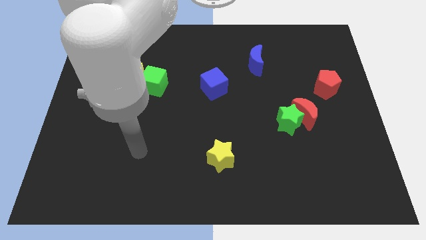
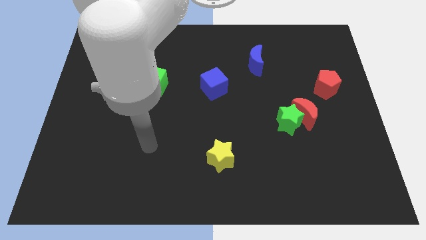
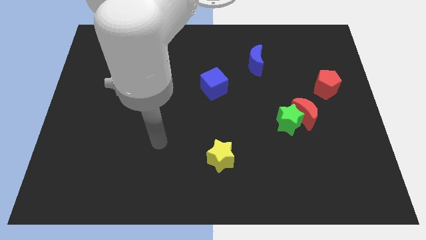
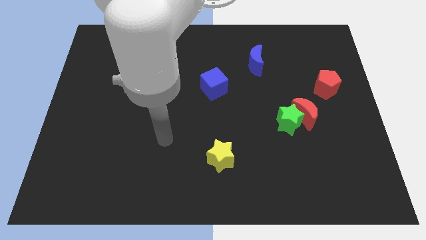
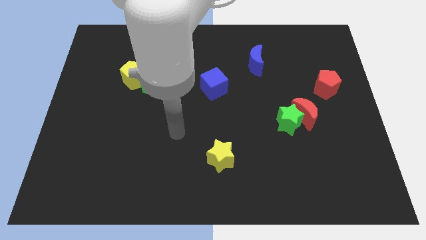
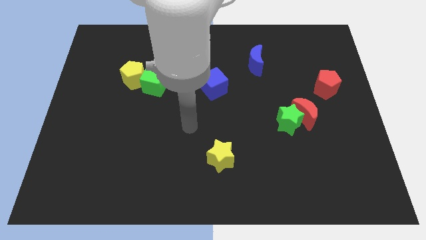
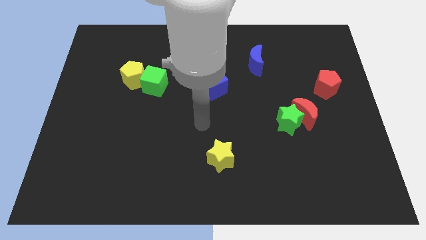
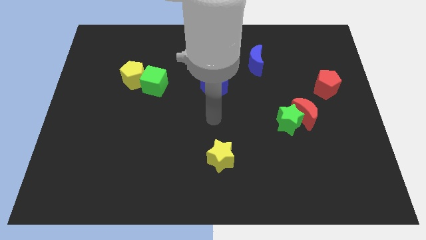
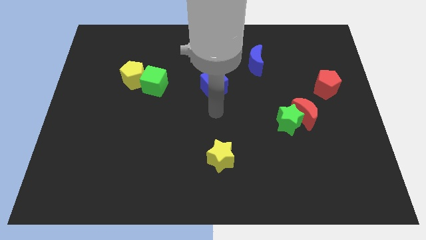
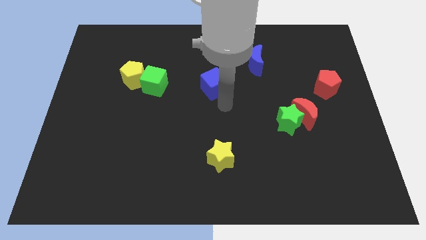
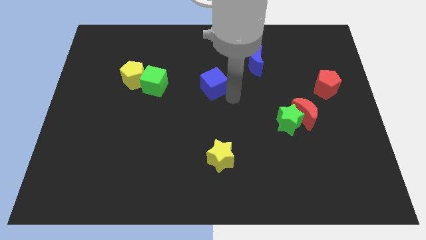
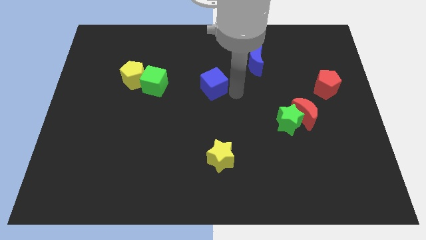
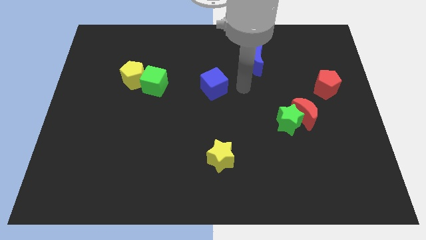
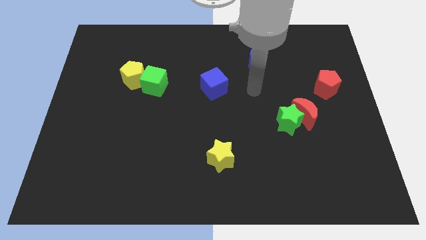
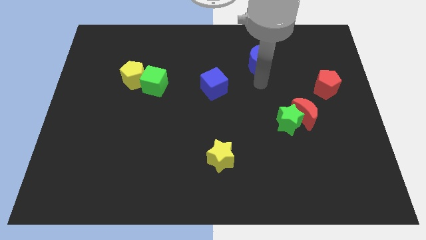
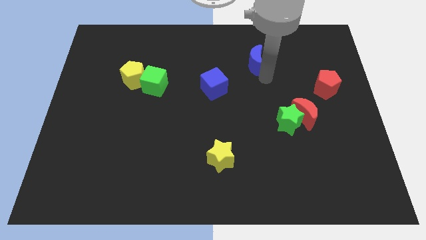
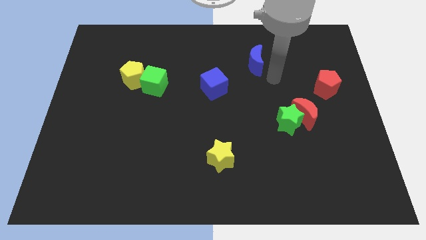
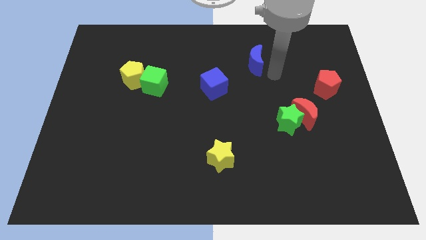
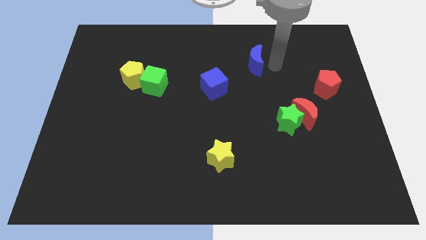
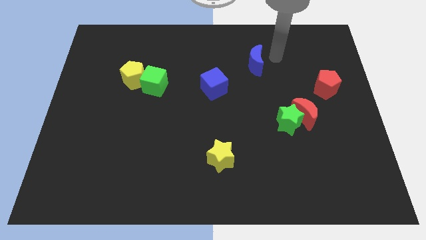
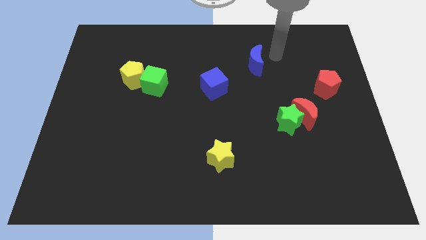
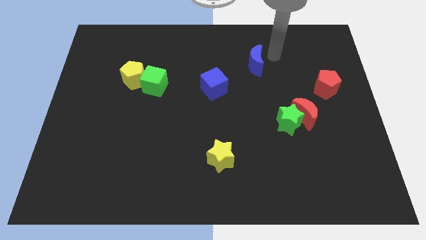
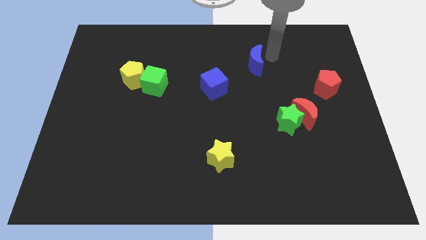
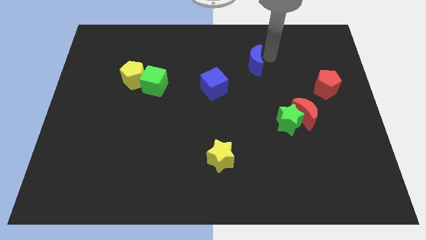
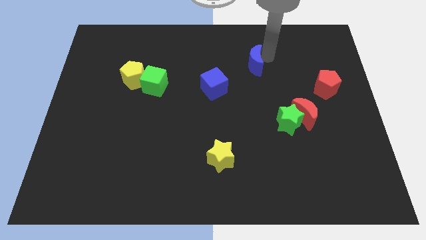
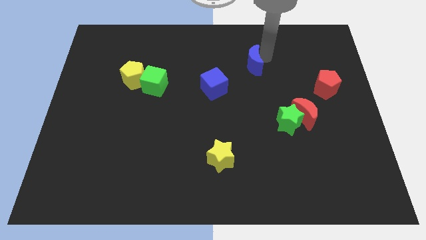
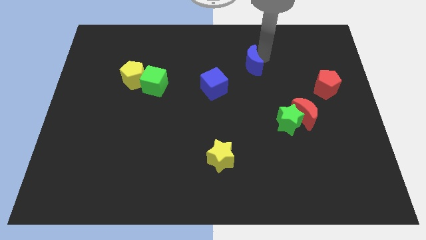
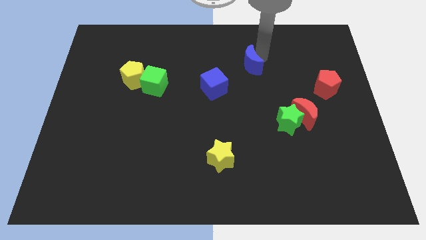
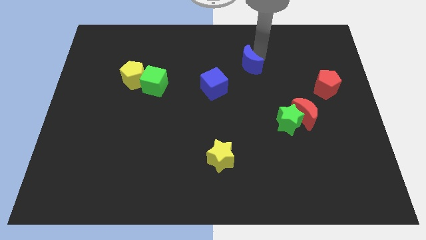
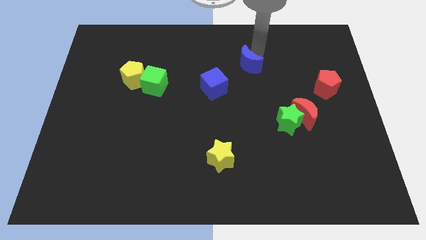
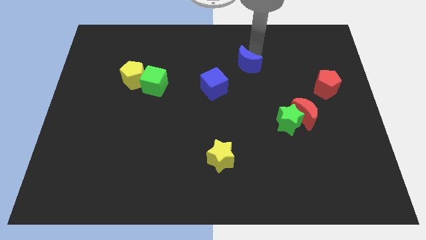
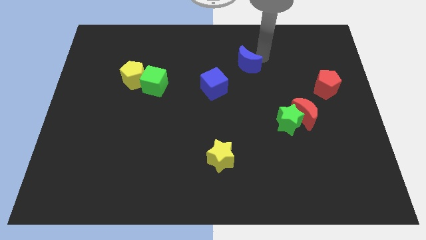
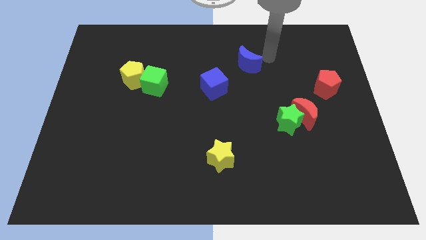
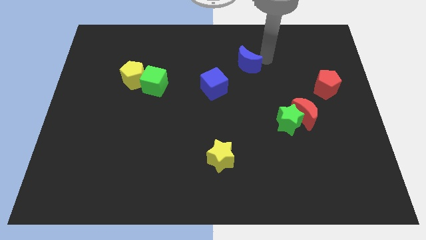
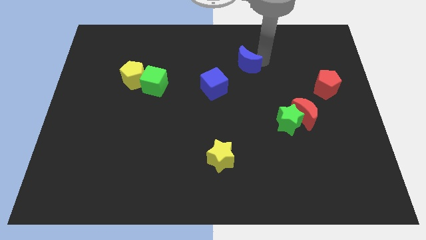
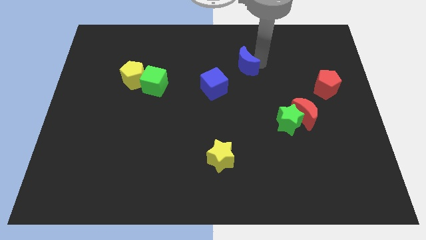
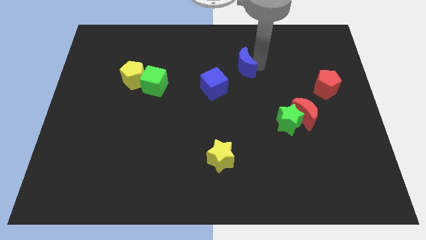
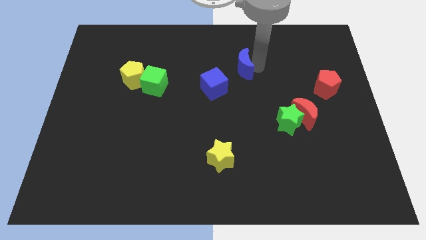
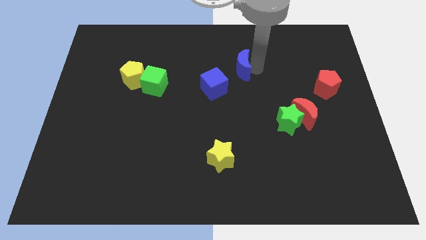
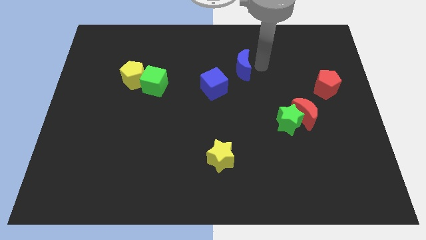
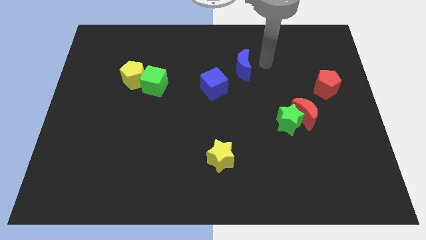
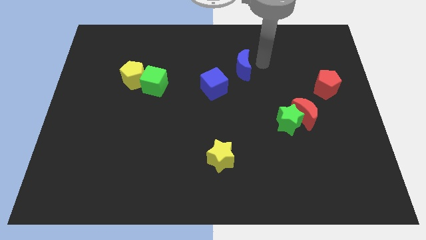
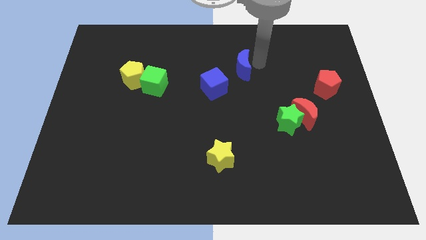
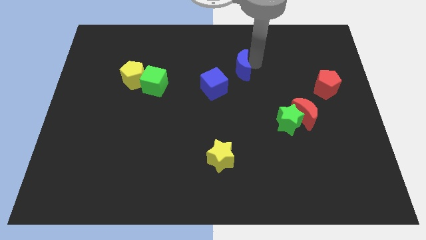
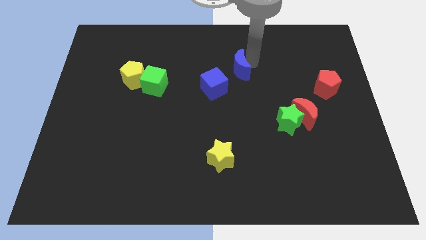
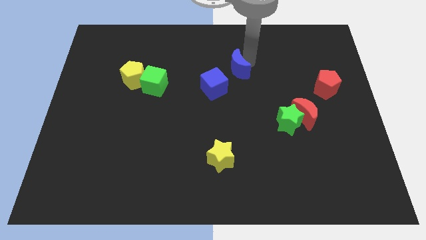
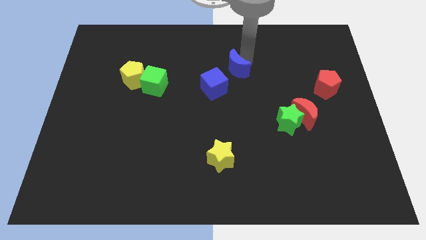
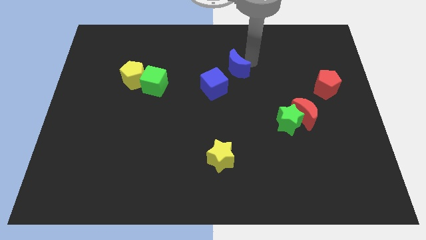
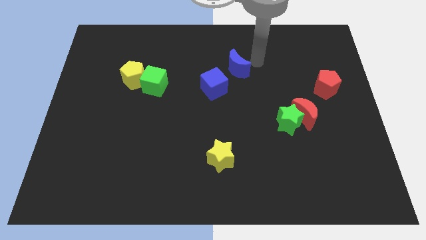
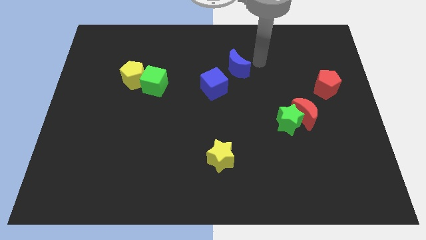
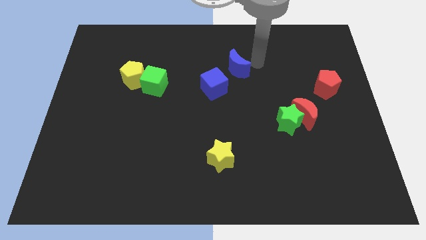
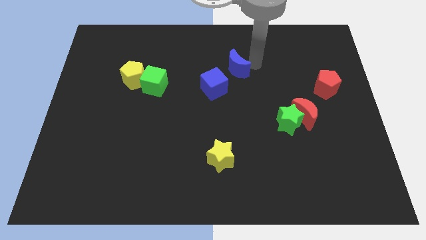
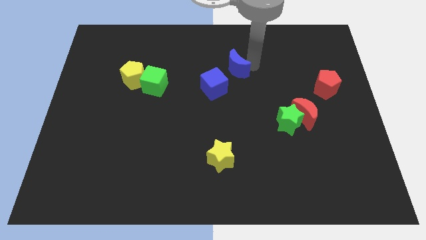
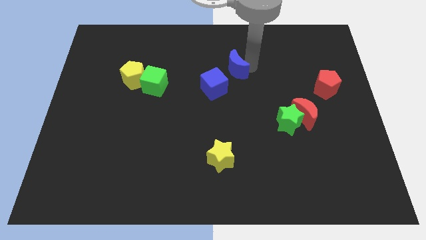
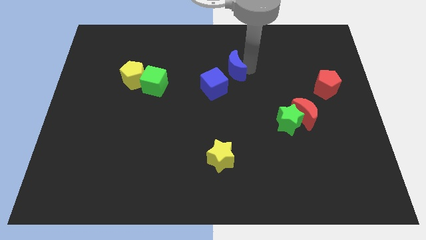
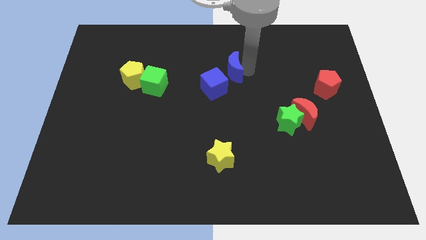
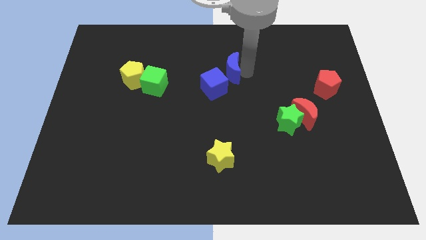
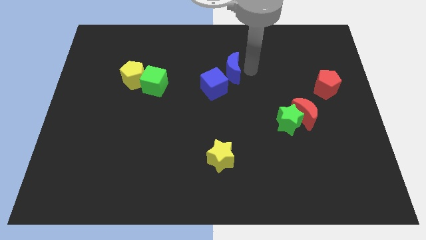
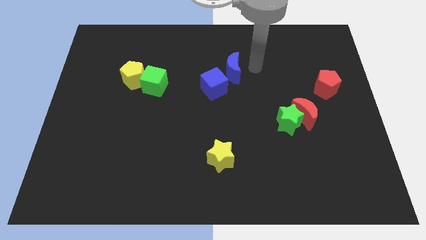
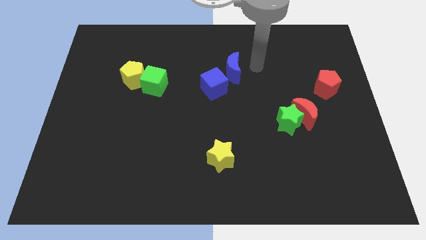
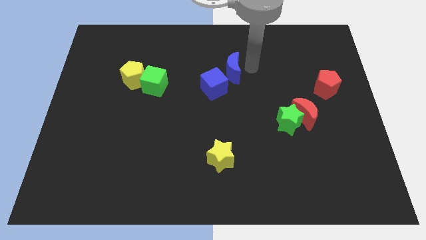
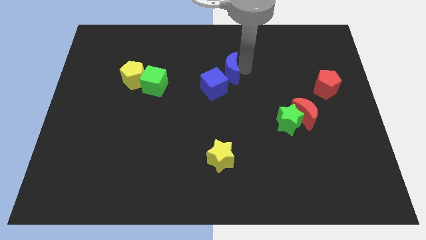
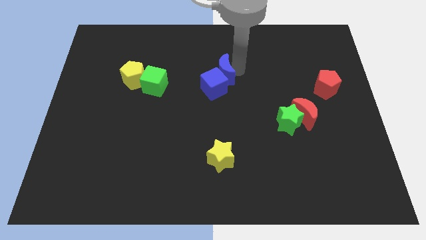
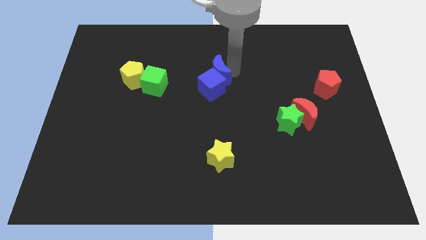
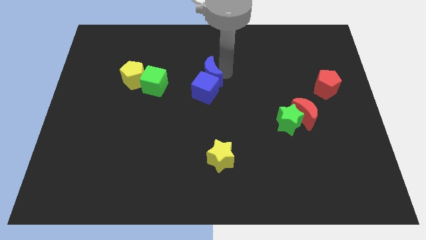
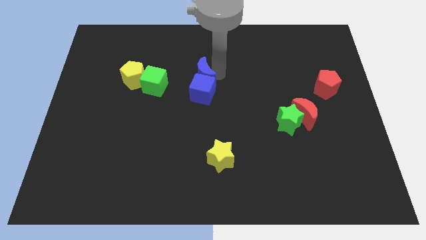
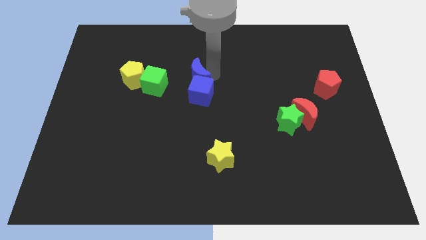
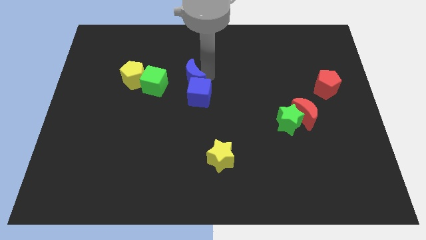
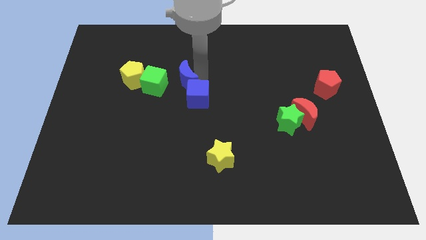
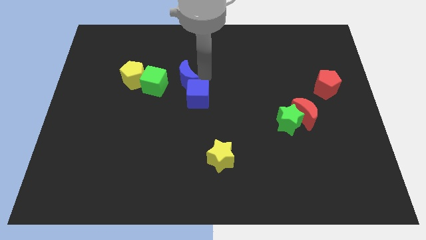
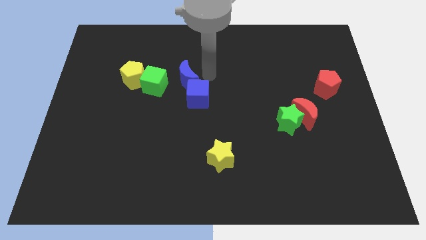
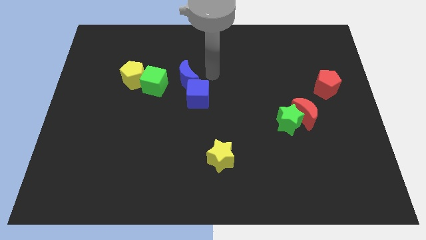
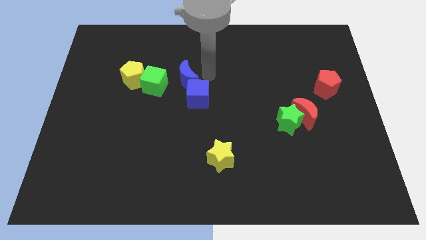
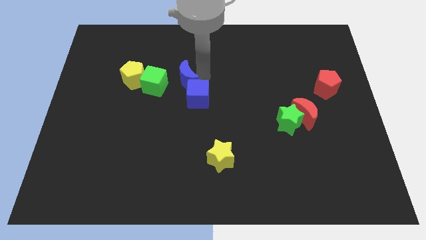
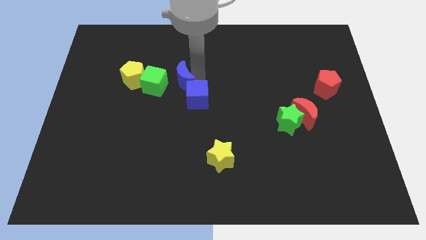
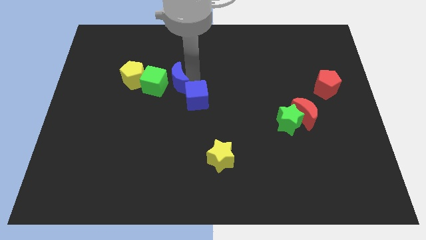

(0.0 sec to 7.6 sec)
move the blue moon next to the green cube
